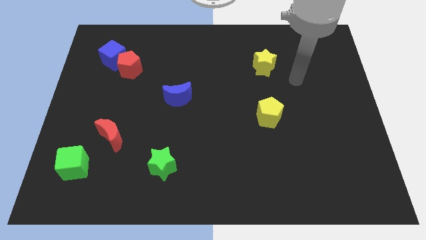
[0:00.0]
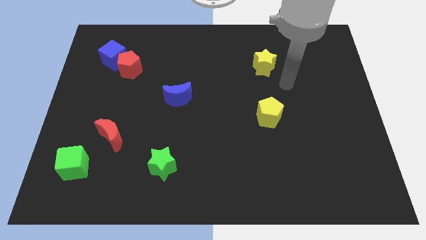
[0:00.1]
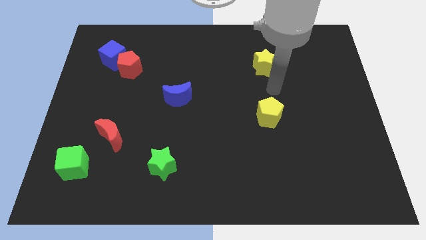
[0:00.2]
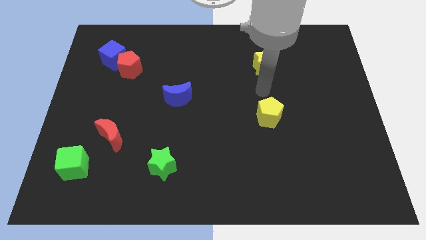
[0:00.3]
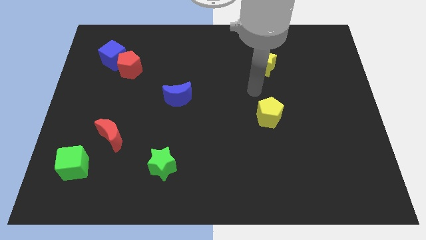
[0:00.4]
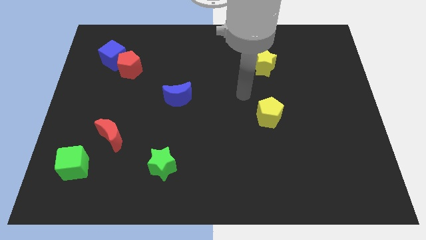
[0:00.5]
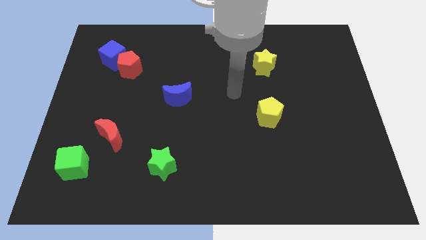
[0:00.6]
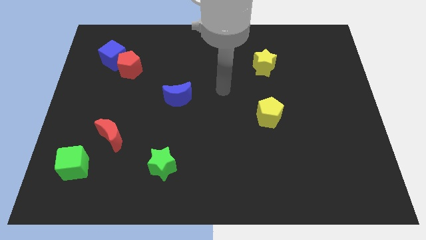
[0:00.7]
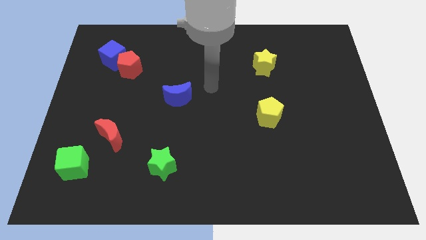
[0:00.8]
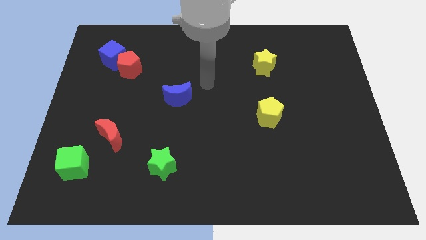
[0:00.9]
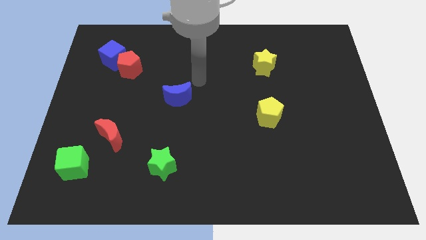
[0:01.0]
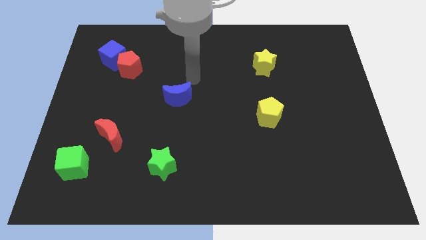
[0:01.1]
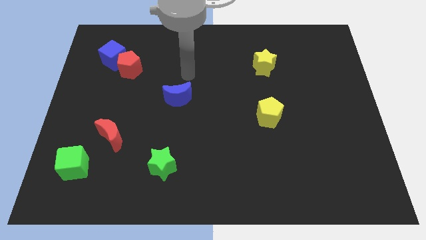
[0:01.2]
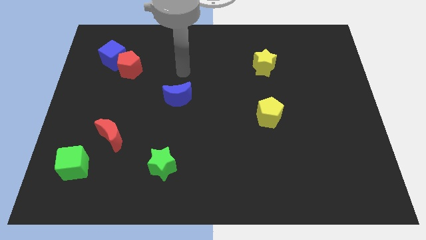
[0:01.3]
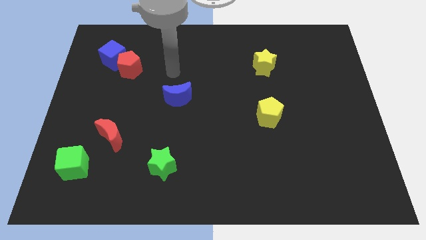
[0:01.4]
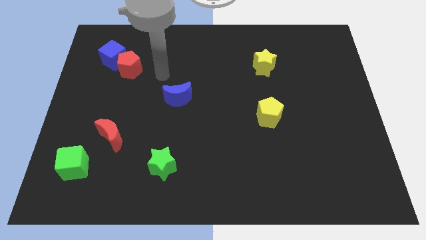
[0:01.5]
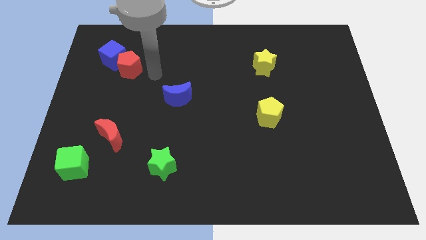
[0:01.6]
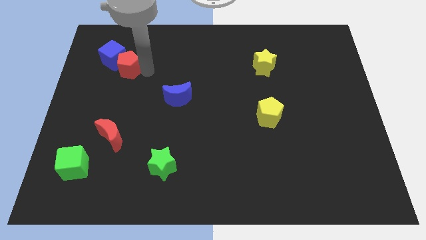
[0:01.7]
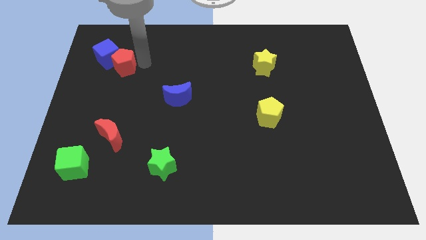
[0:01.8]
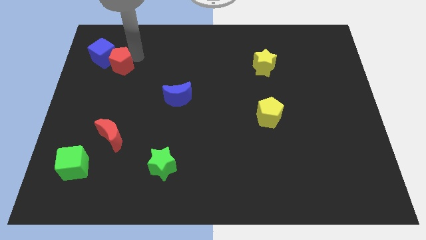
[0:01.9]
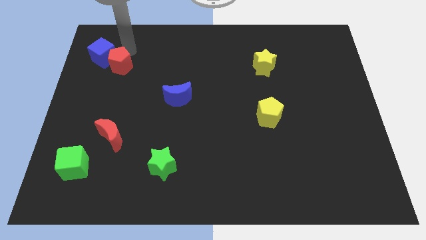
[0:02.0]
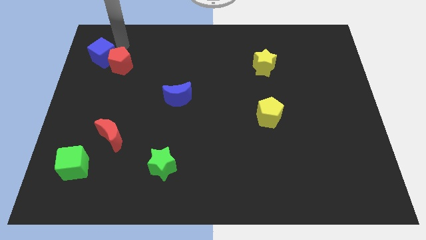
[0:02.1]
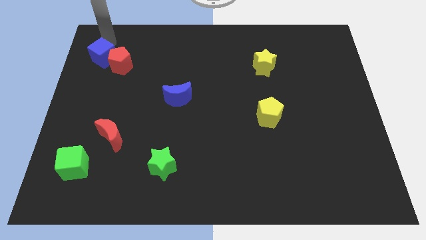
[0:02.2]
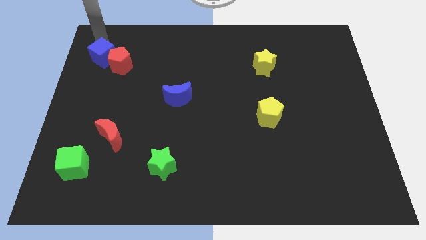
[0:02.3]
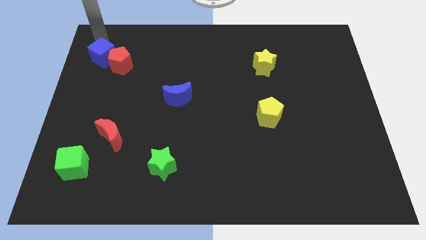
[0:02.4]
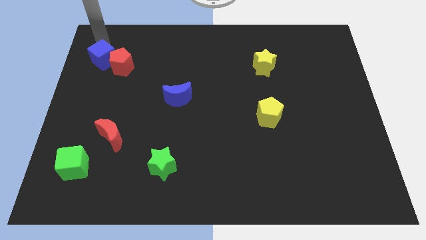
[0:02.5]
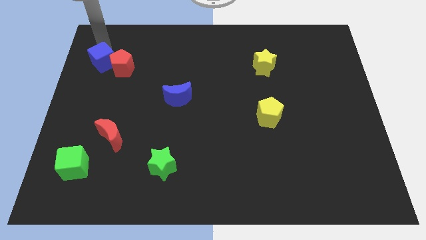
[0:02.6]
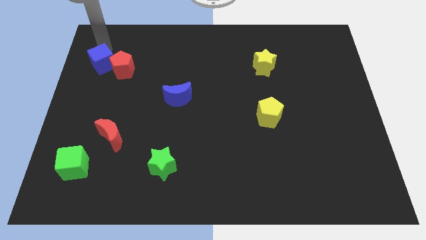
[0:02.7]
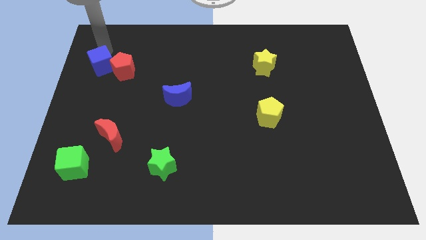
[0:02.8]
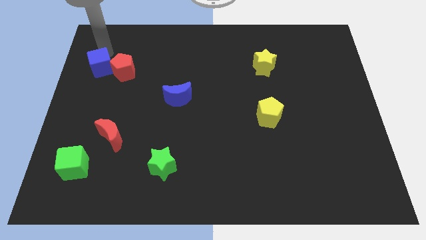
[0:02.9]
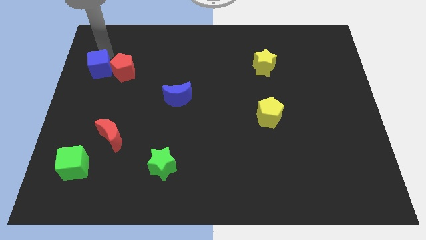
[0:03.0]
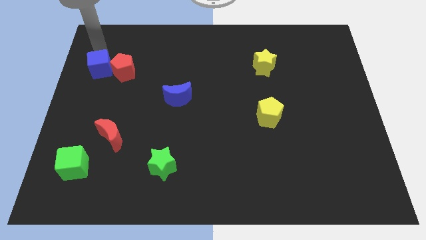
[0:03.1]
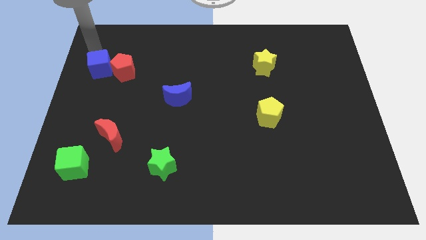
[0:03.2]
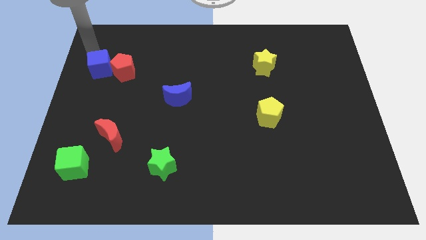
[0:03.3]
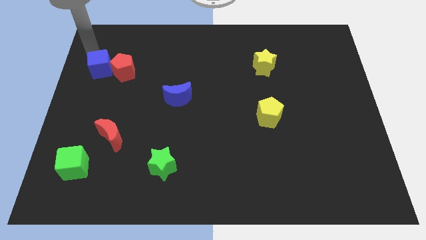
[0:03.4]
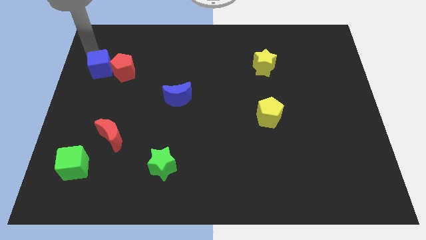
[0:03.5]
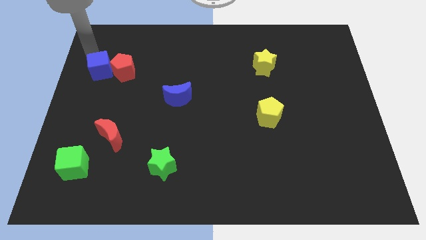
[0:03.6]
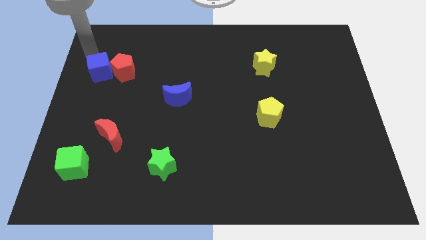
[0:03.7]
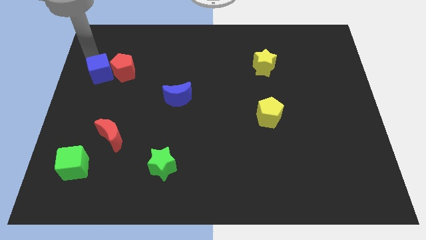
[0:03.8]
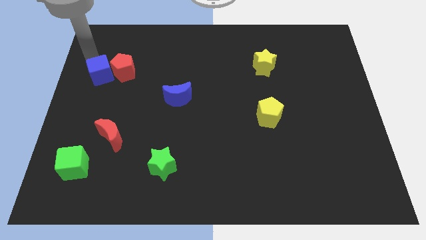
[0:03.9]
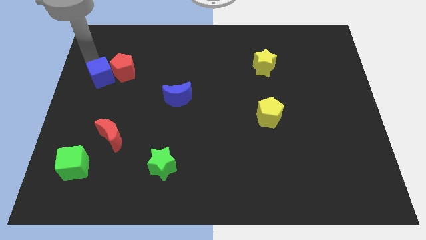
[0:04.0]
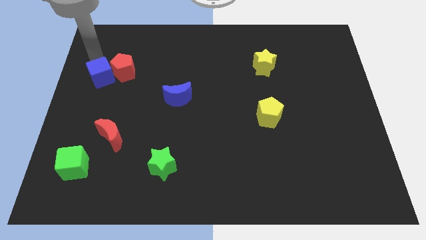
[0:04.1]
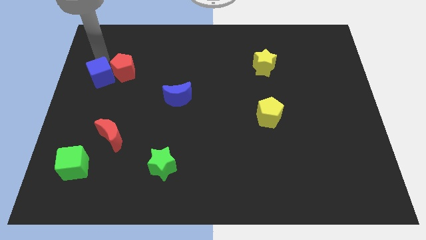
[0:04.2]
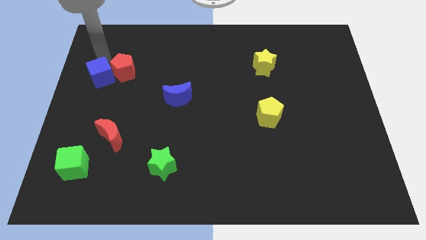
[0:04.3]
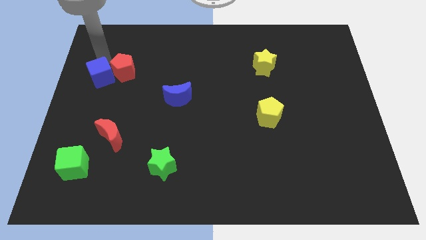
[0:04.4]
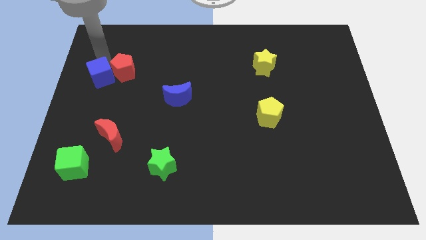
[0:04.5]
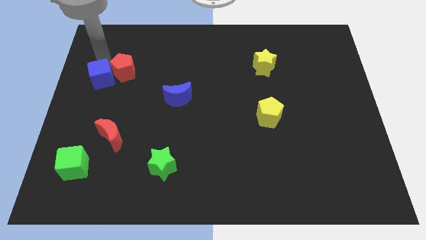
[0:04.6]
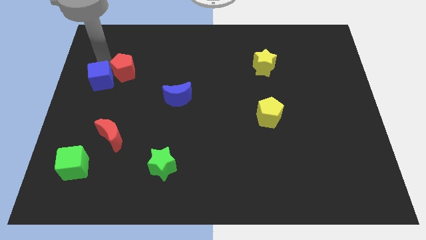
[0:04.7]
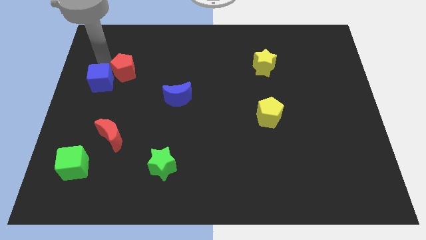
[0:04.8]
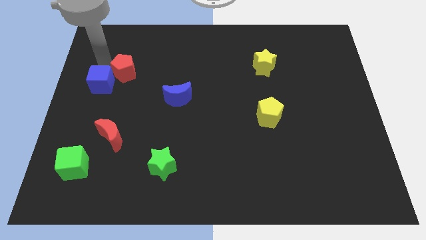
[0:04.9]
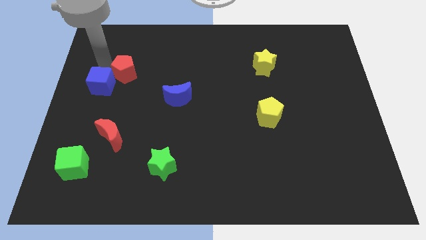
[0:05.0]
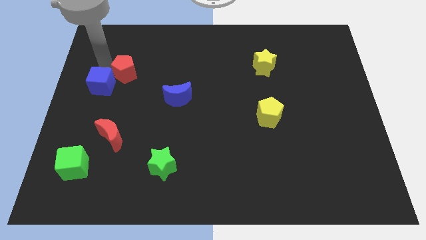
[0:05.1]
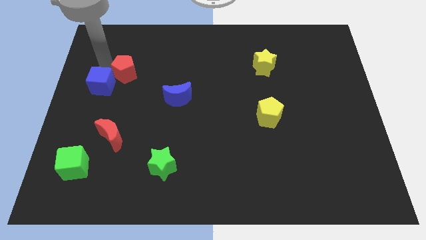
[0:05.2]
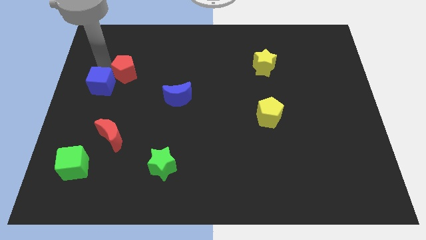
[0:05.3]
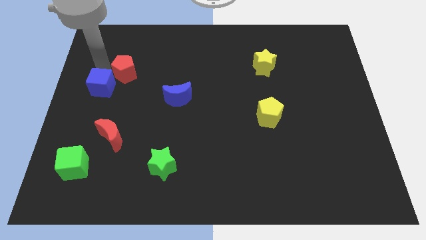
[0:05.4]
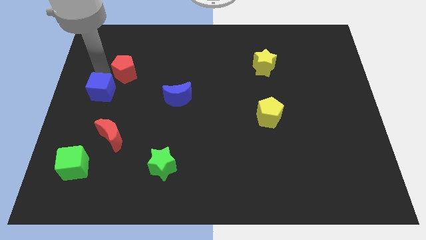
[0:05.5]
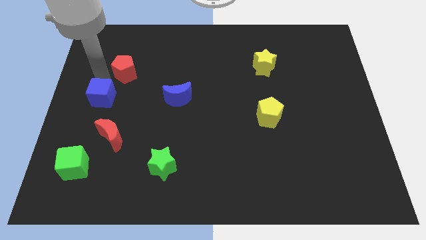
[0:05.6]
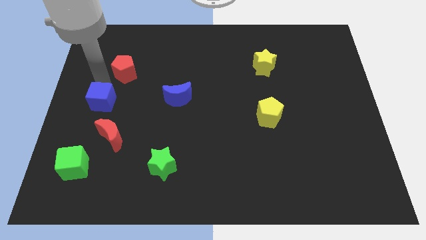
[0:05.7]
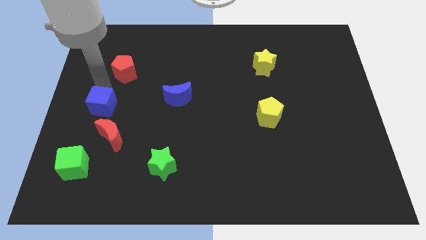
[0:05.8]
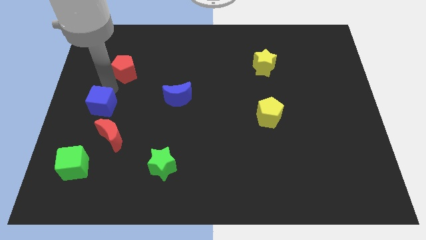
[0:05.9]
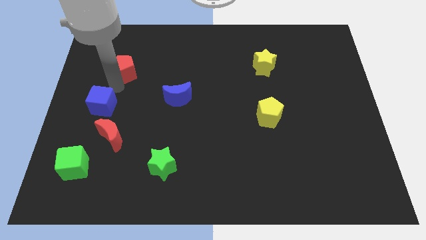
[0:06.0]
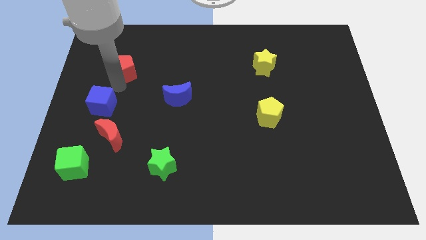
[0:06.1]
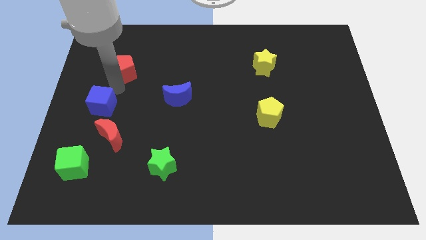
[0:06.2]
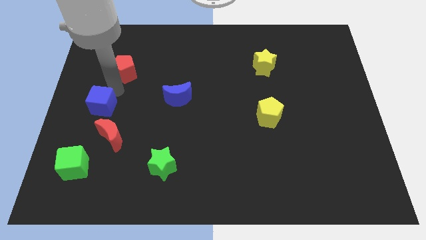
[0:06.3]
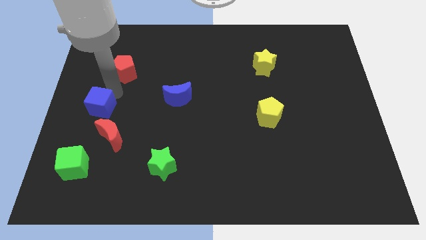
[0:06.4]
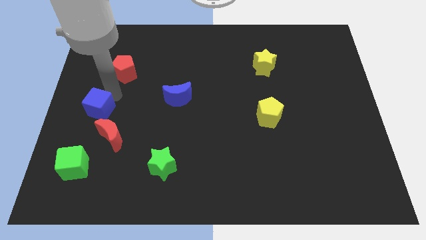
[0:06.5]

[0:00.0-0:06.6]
put the blue cube above the green cube
